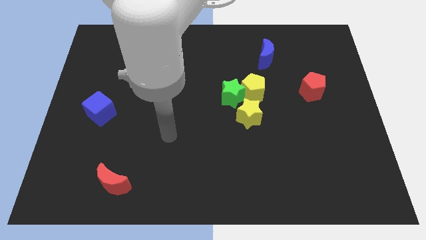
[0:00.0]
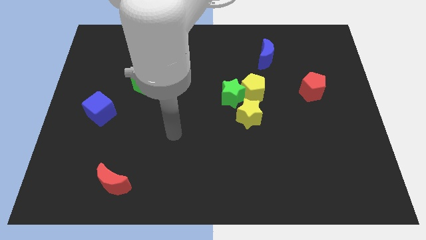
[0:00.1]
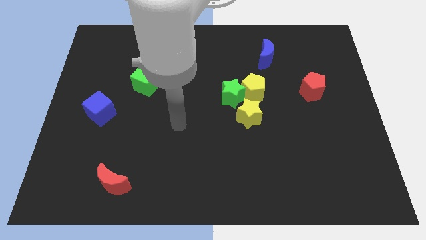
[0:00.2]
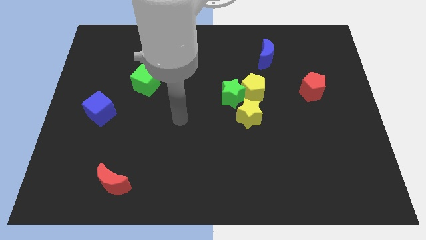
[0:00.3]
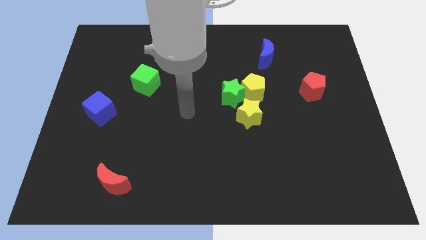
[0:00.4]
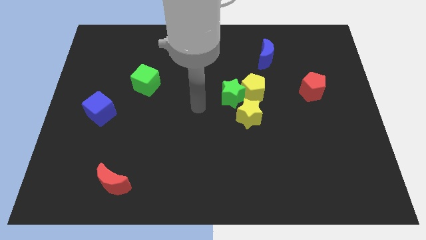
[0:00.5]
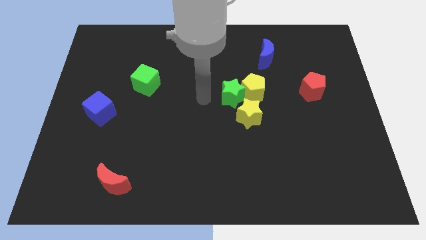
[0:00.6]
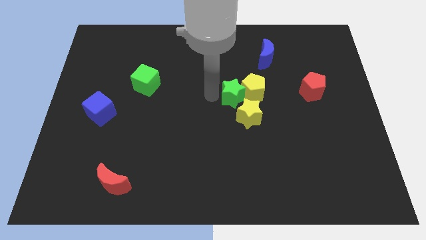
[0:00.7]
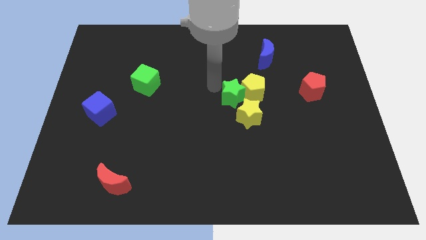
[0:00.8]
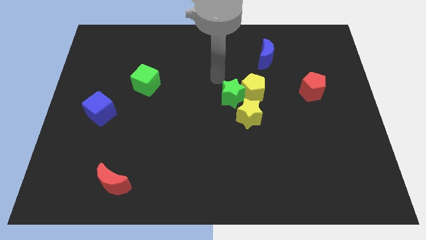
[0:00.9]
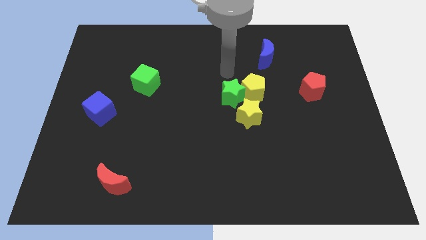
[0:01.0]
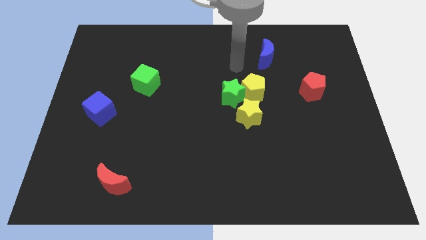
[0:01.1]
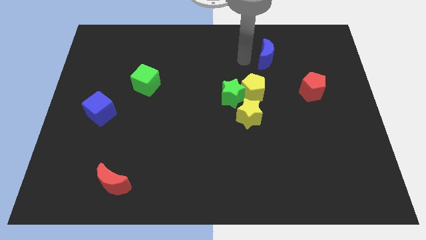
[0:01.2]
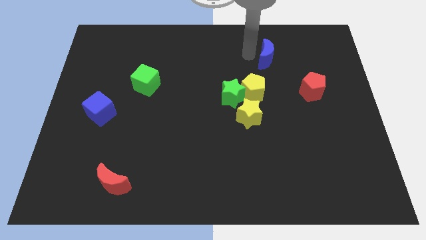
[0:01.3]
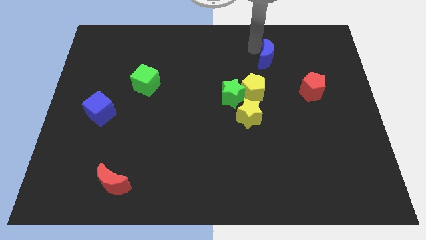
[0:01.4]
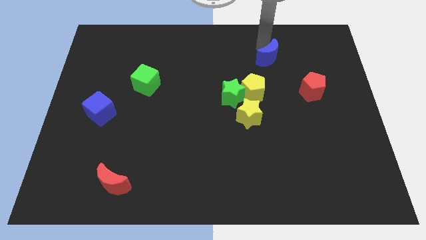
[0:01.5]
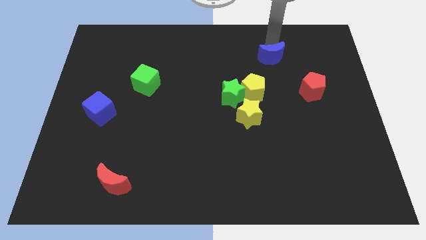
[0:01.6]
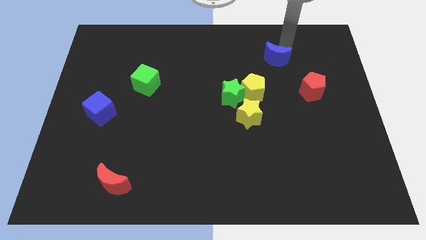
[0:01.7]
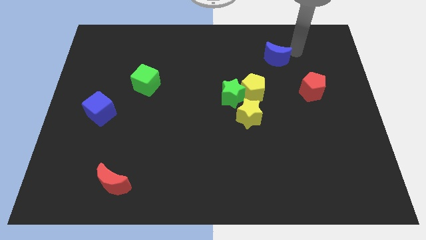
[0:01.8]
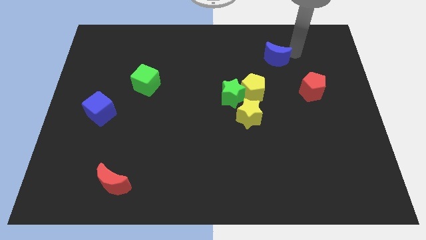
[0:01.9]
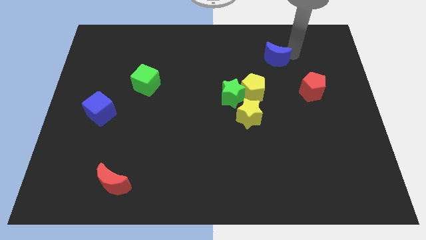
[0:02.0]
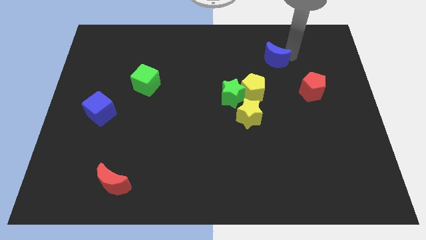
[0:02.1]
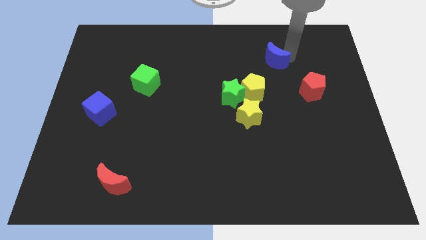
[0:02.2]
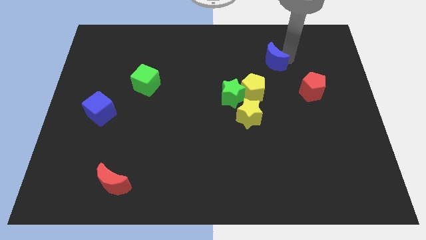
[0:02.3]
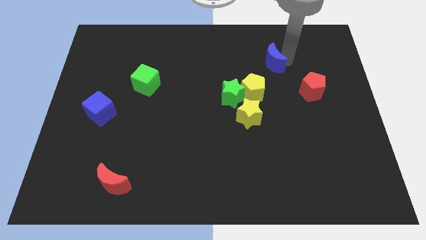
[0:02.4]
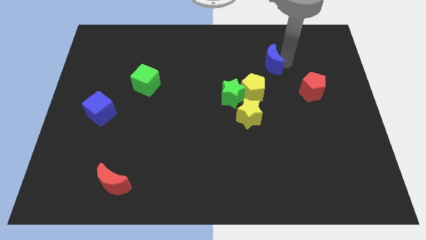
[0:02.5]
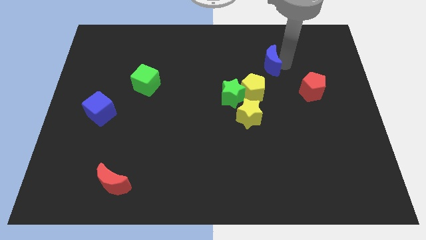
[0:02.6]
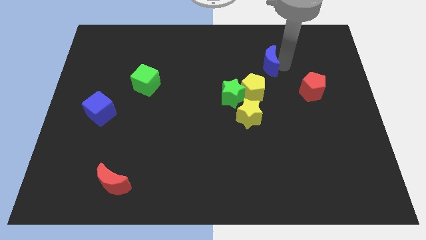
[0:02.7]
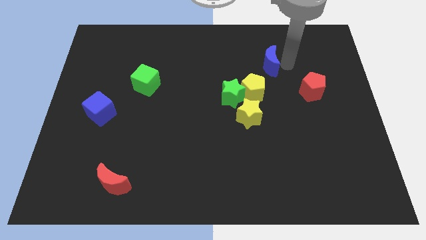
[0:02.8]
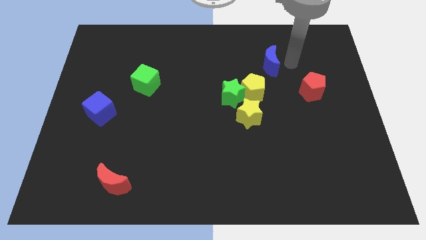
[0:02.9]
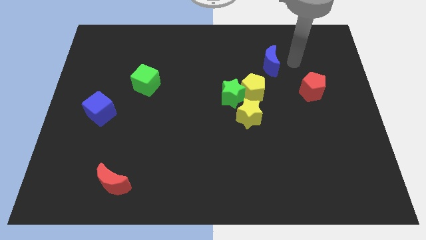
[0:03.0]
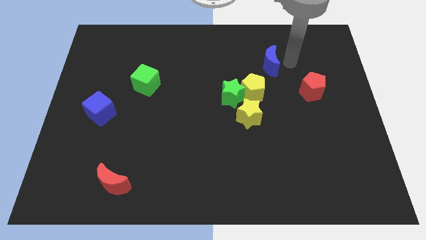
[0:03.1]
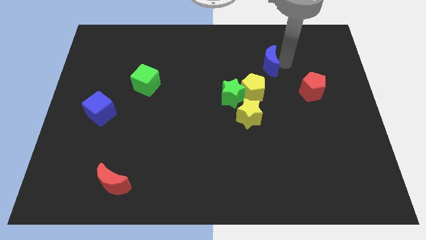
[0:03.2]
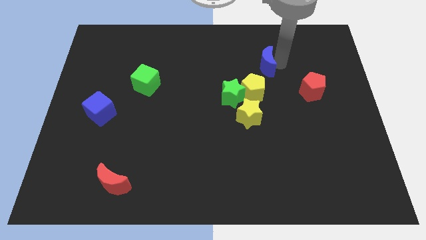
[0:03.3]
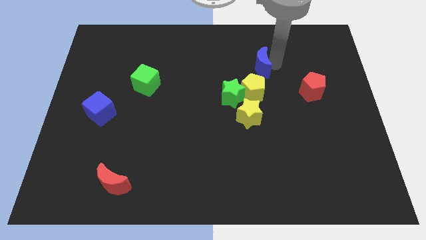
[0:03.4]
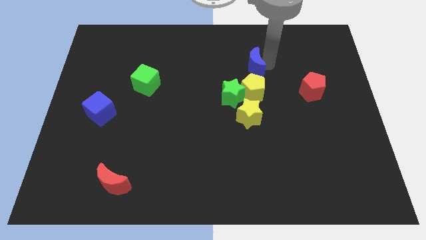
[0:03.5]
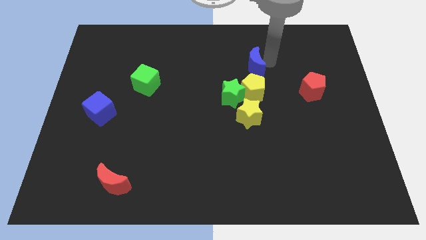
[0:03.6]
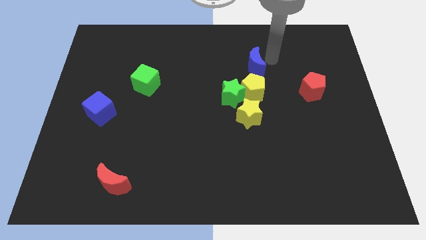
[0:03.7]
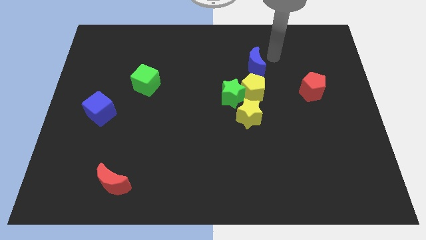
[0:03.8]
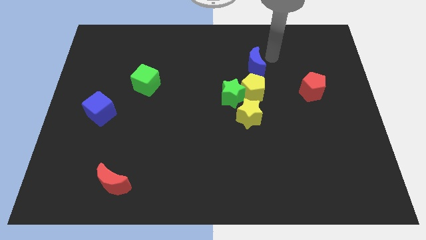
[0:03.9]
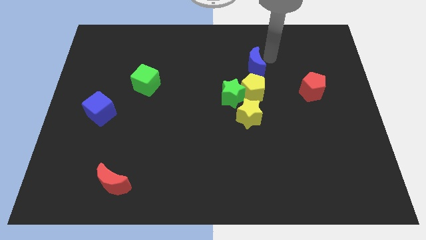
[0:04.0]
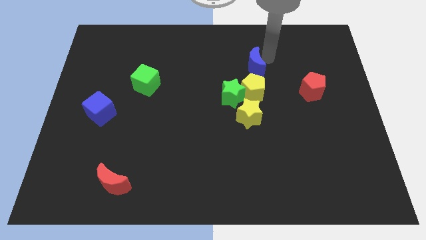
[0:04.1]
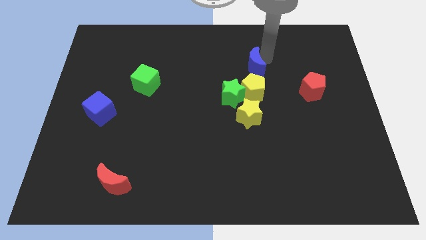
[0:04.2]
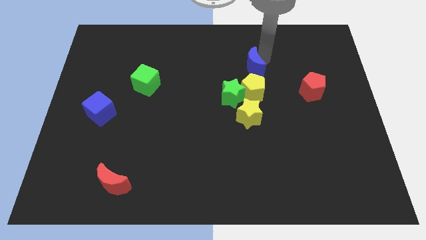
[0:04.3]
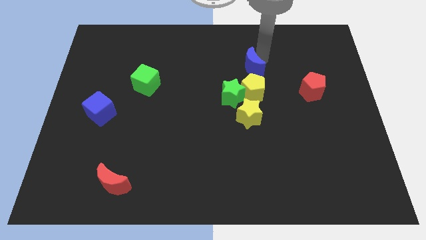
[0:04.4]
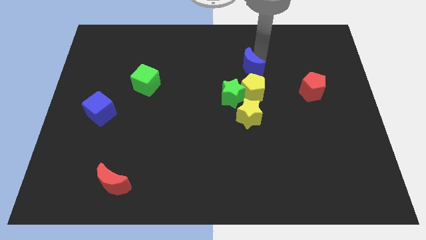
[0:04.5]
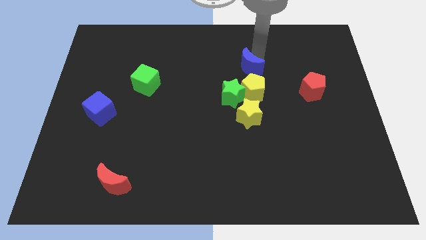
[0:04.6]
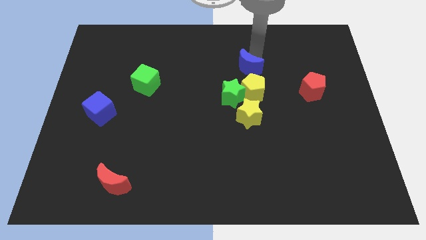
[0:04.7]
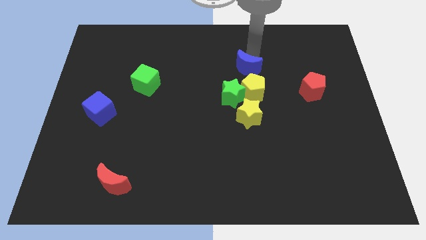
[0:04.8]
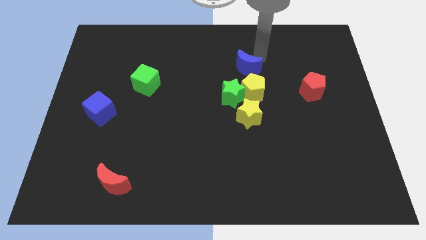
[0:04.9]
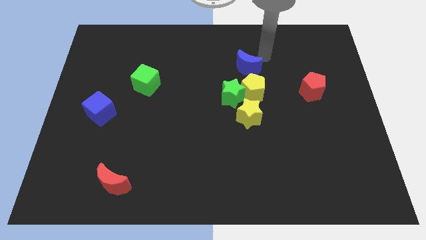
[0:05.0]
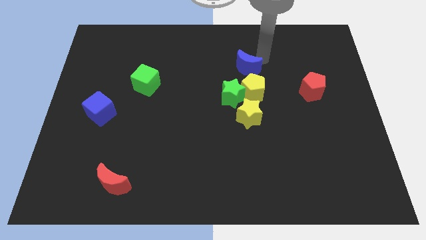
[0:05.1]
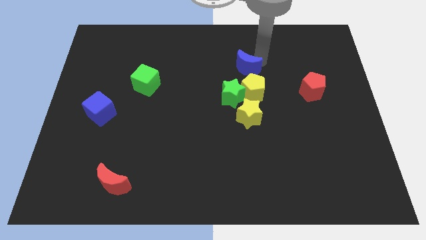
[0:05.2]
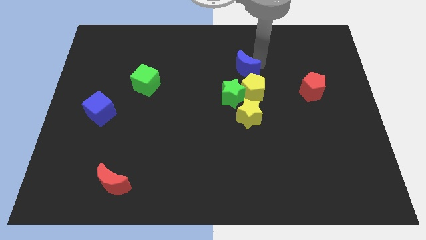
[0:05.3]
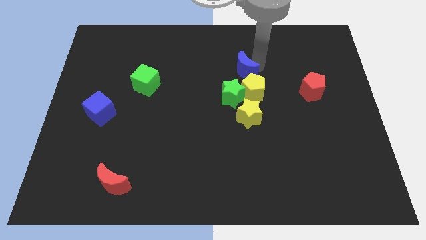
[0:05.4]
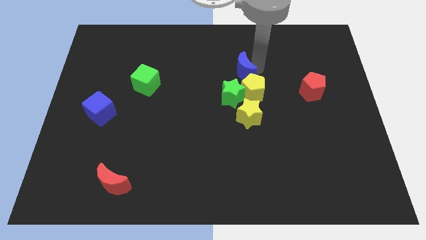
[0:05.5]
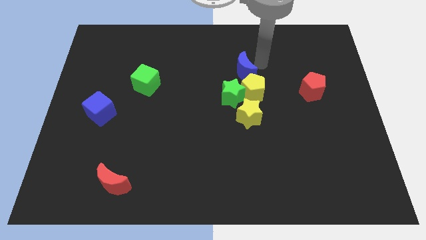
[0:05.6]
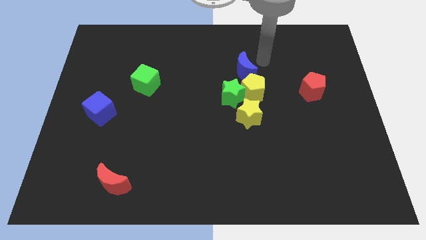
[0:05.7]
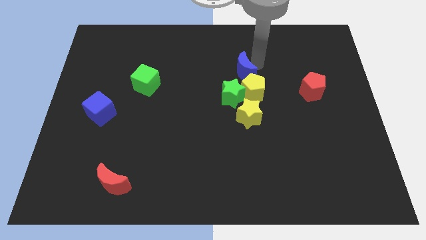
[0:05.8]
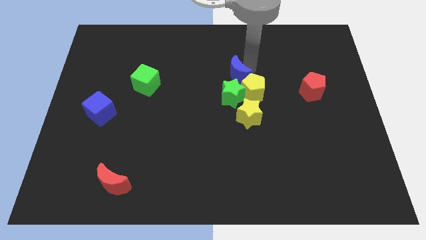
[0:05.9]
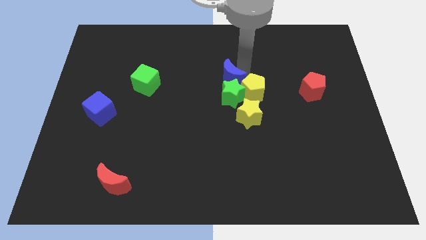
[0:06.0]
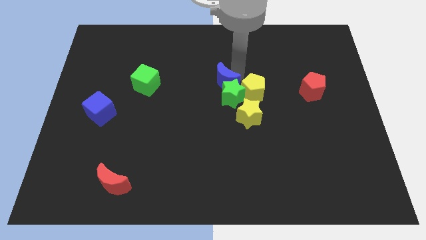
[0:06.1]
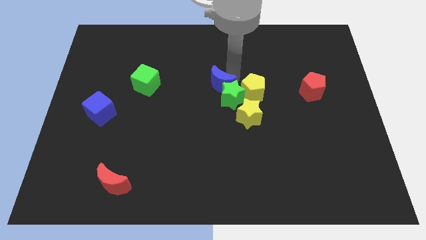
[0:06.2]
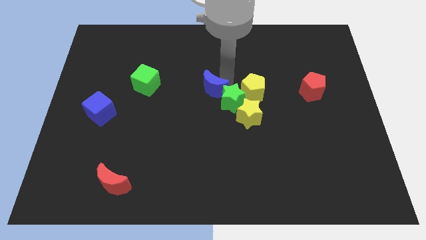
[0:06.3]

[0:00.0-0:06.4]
slide the blue moon to the left of the green star

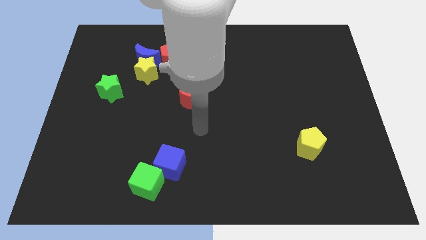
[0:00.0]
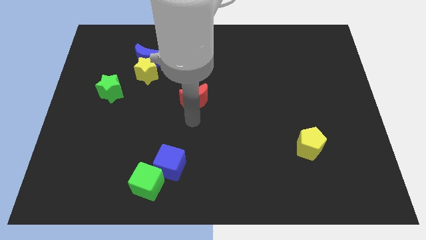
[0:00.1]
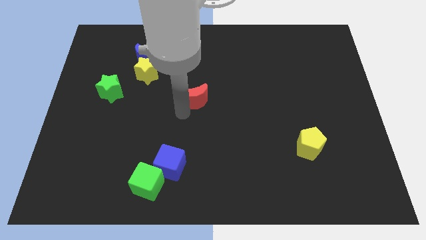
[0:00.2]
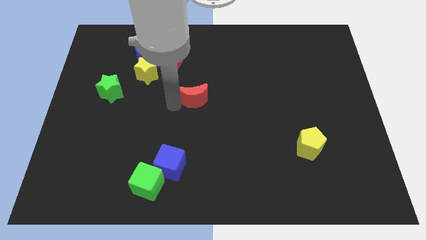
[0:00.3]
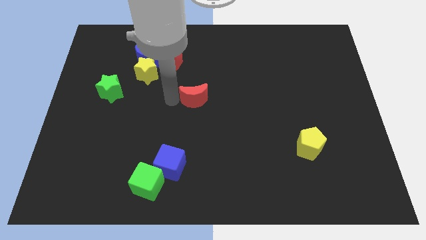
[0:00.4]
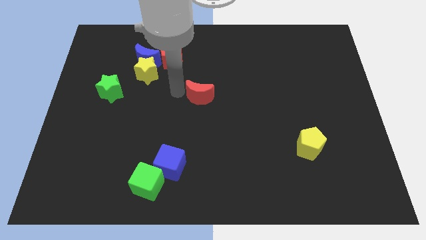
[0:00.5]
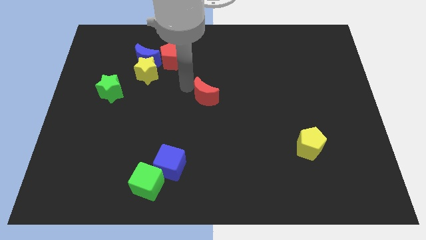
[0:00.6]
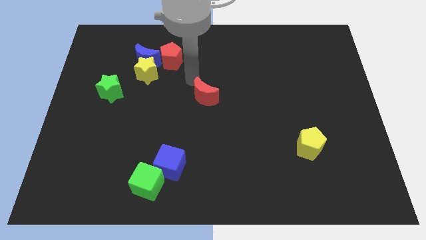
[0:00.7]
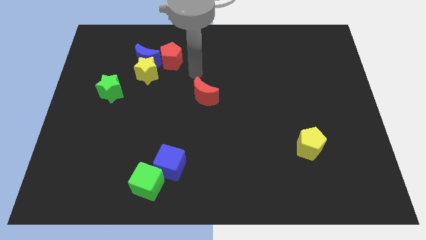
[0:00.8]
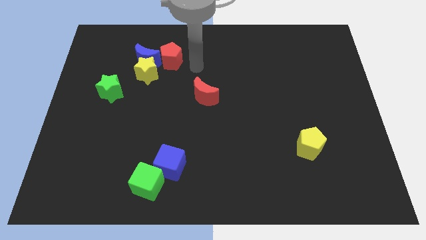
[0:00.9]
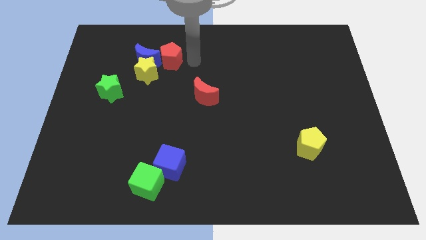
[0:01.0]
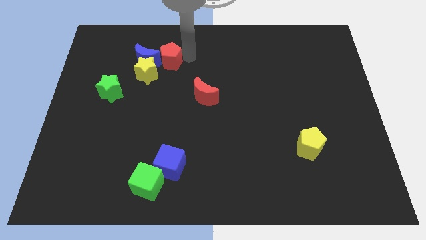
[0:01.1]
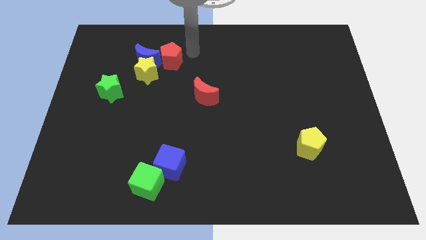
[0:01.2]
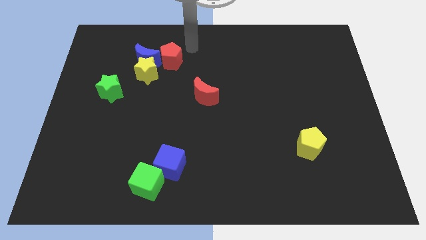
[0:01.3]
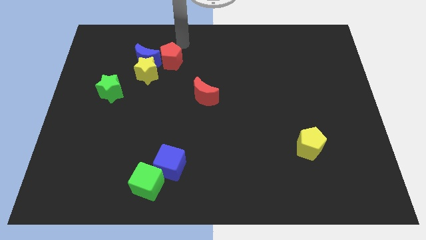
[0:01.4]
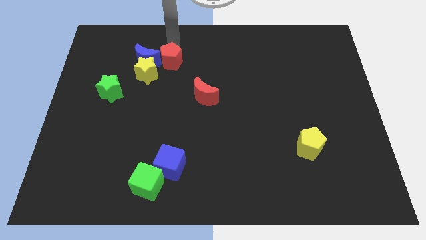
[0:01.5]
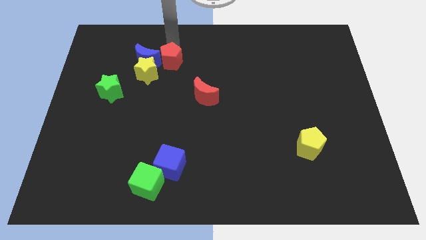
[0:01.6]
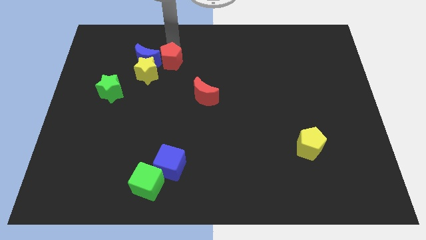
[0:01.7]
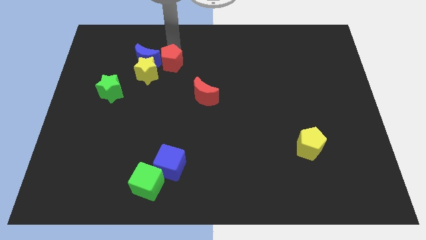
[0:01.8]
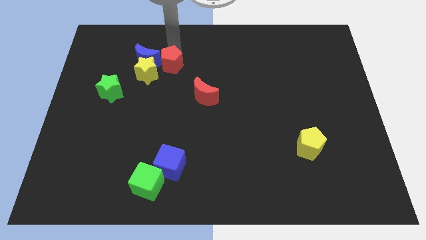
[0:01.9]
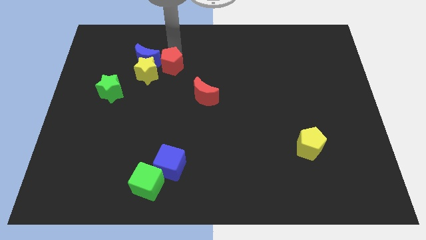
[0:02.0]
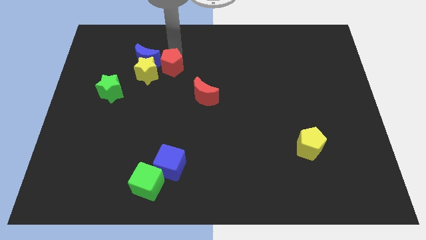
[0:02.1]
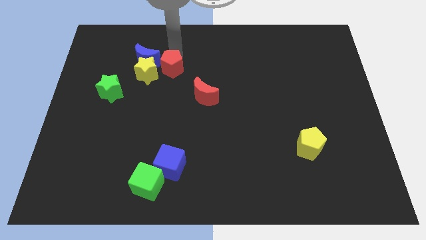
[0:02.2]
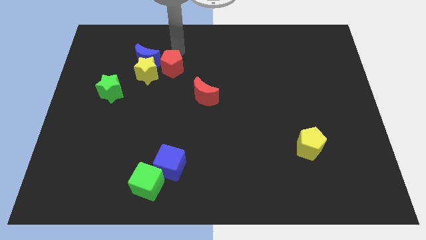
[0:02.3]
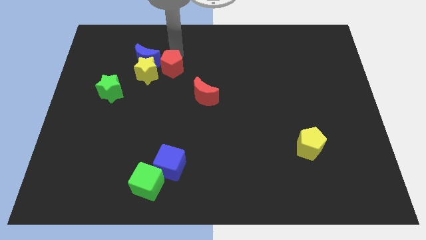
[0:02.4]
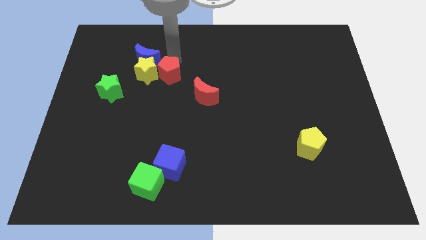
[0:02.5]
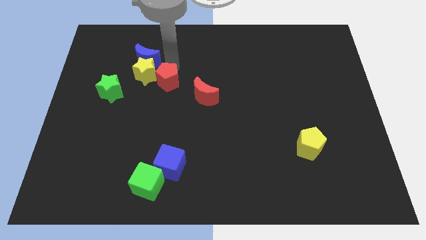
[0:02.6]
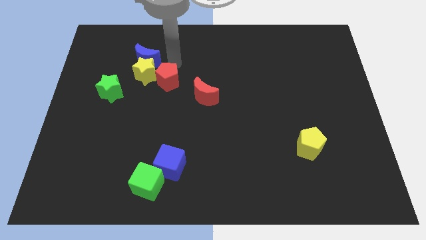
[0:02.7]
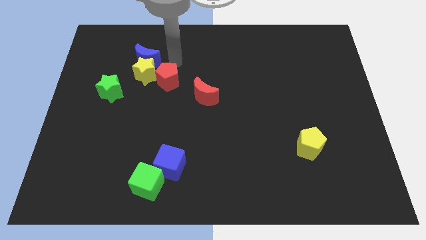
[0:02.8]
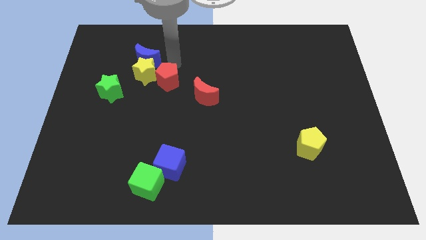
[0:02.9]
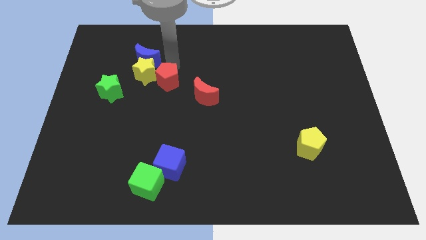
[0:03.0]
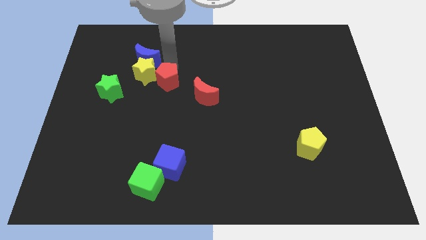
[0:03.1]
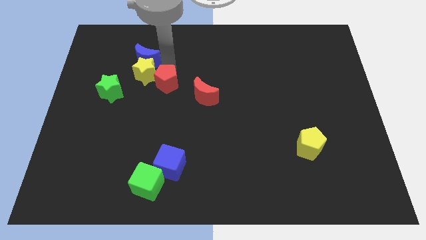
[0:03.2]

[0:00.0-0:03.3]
put the red pentagon left of the red moon
